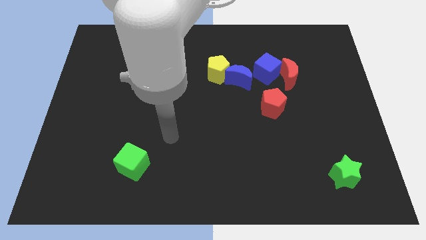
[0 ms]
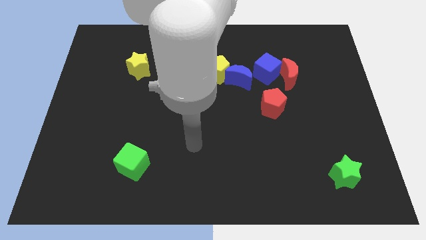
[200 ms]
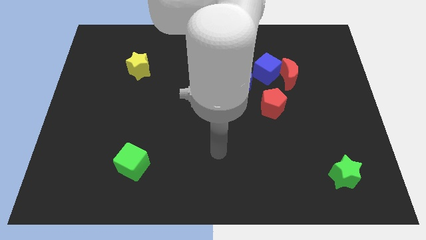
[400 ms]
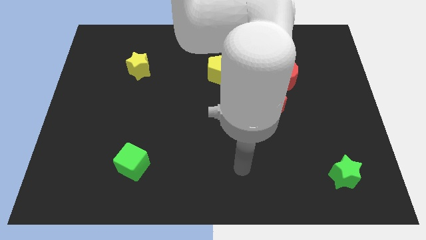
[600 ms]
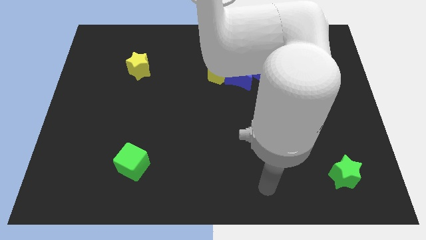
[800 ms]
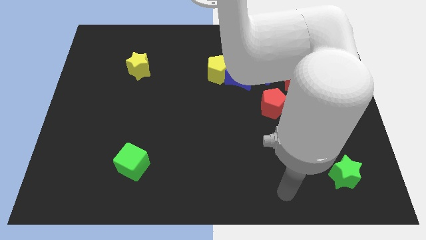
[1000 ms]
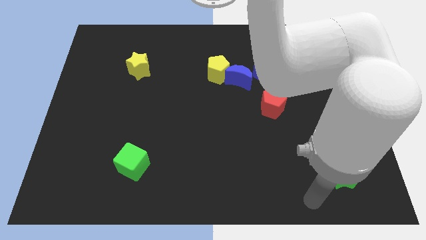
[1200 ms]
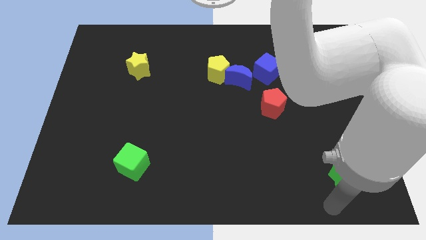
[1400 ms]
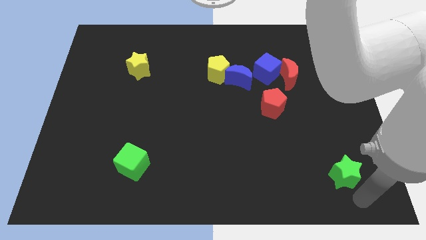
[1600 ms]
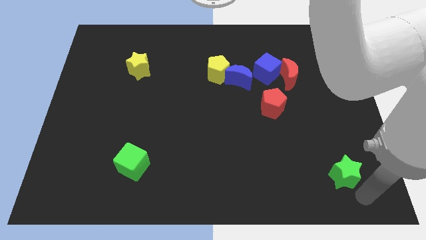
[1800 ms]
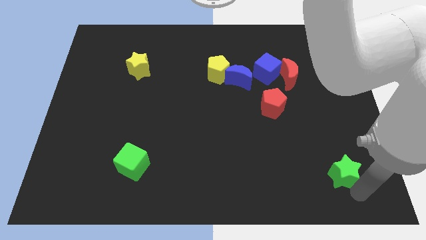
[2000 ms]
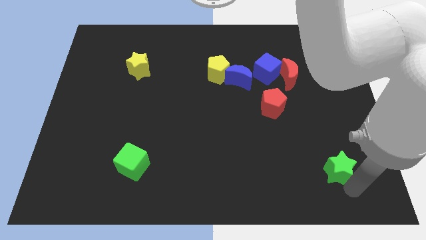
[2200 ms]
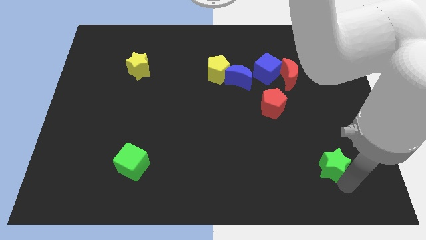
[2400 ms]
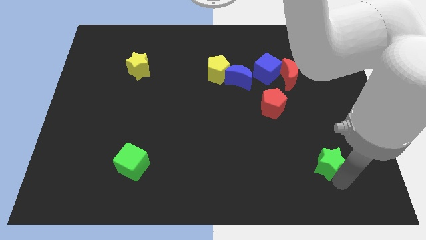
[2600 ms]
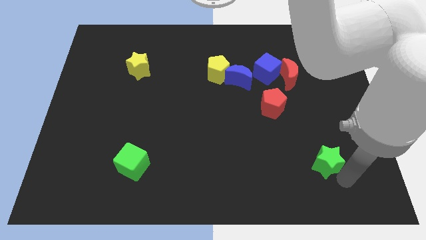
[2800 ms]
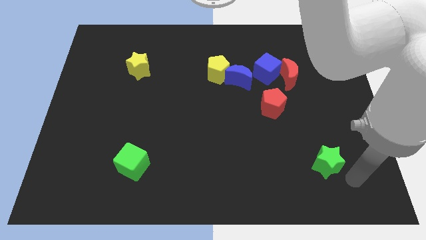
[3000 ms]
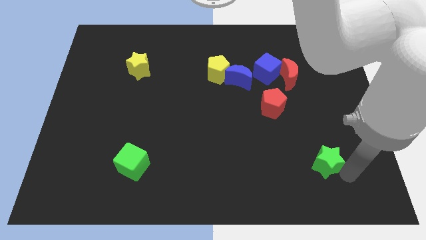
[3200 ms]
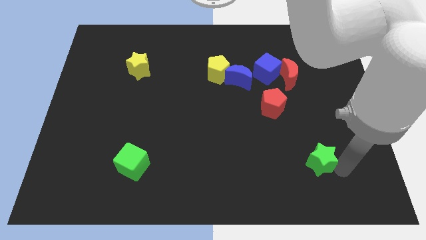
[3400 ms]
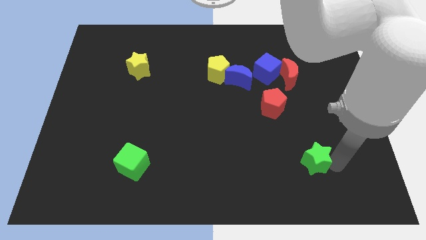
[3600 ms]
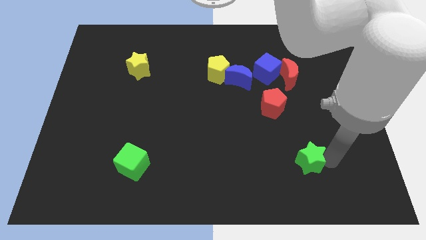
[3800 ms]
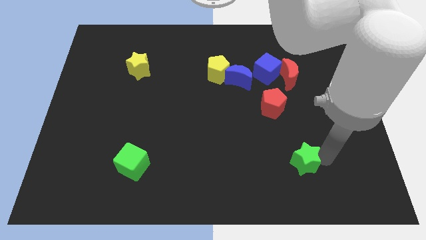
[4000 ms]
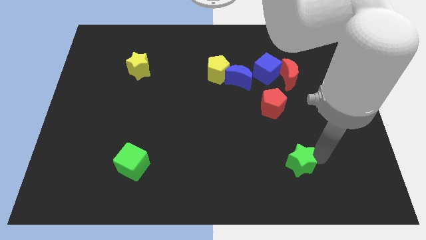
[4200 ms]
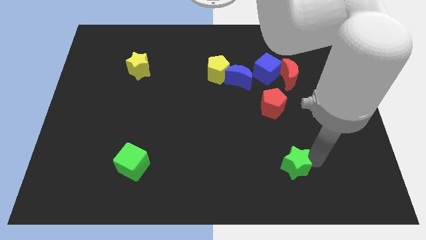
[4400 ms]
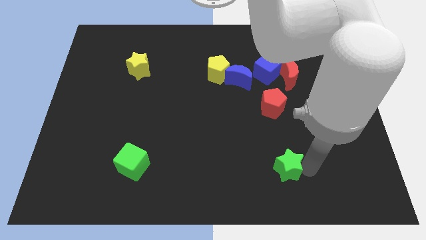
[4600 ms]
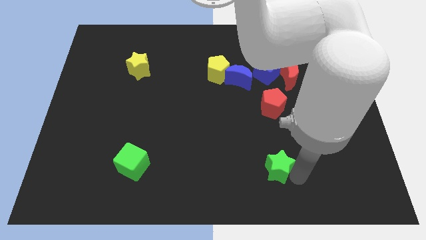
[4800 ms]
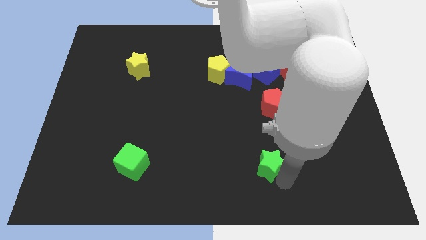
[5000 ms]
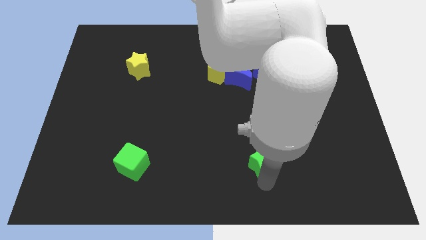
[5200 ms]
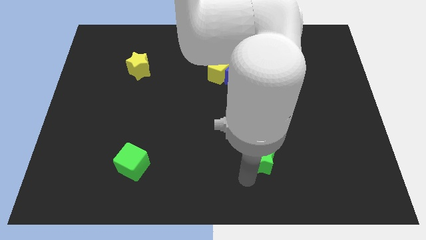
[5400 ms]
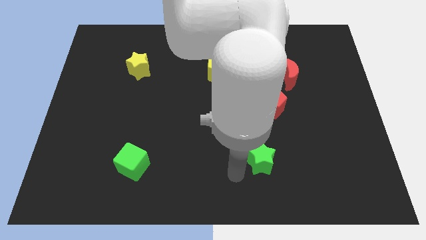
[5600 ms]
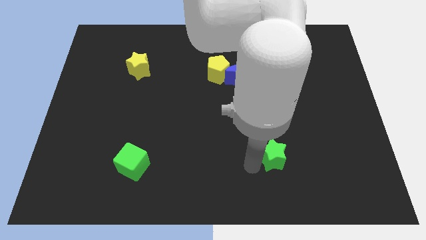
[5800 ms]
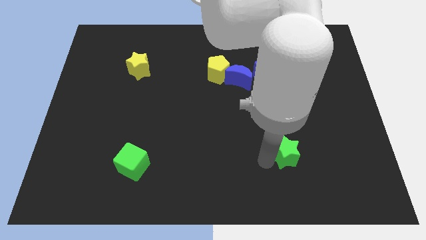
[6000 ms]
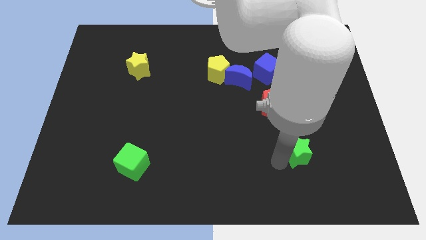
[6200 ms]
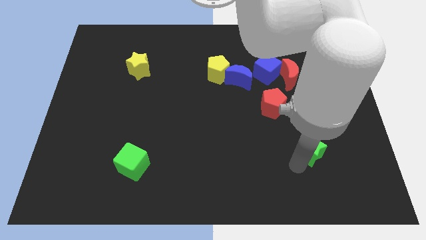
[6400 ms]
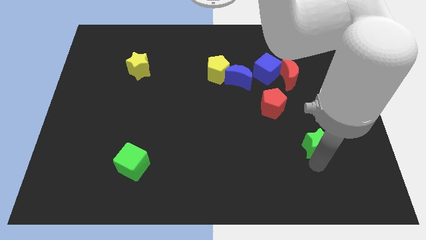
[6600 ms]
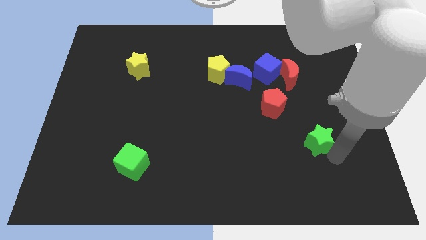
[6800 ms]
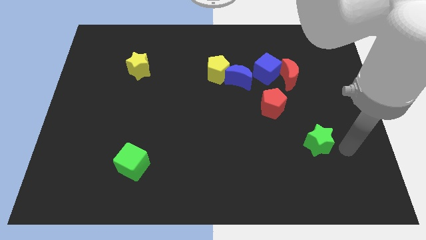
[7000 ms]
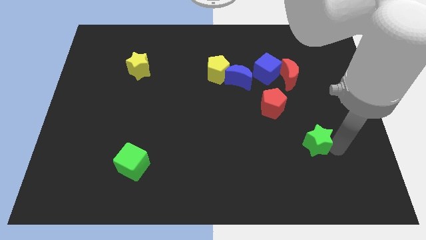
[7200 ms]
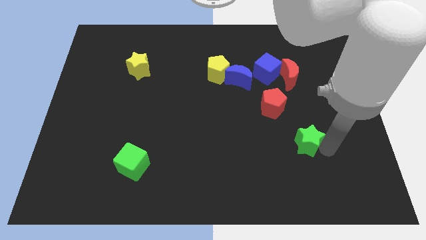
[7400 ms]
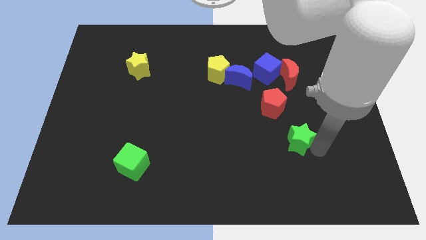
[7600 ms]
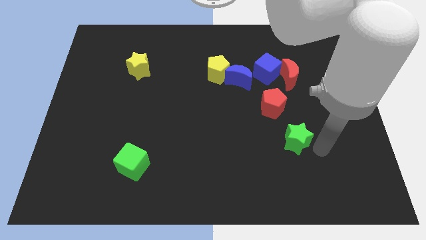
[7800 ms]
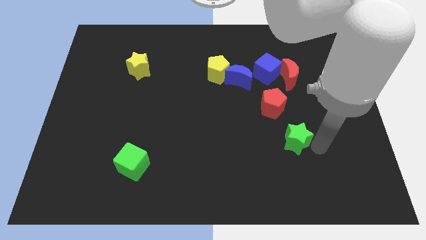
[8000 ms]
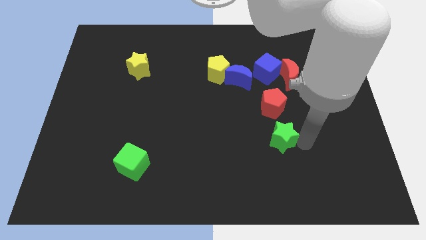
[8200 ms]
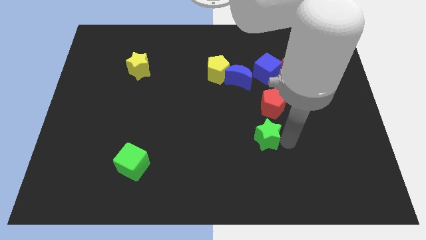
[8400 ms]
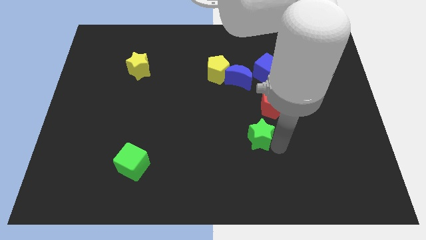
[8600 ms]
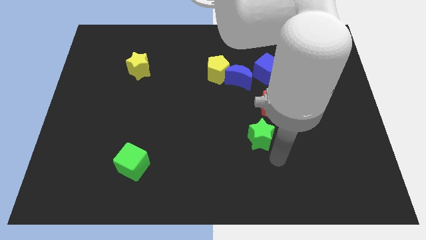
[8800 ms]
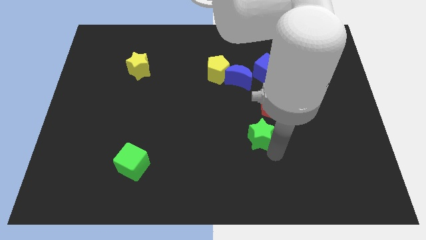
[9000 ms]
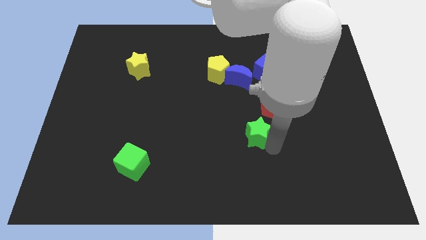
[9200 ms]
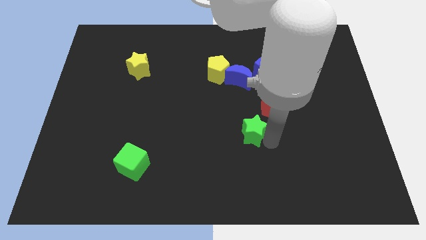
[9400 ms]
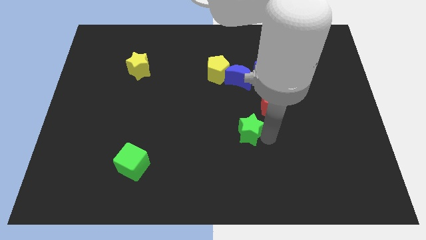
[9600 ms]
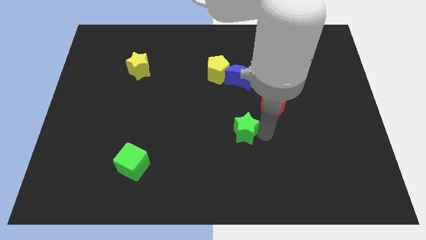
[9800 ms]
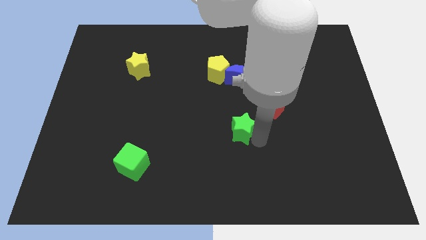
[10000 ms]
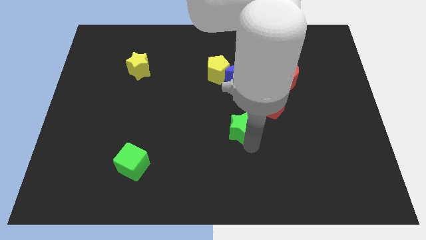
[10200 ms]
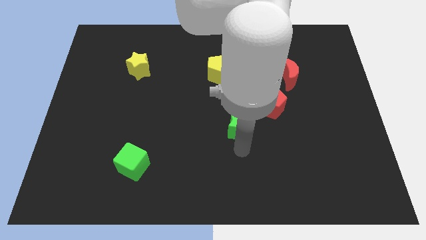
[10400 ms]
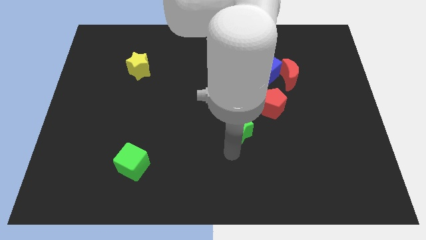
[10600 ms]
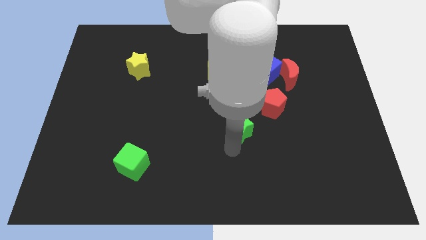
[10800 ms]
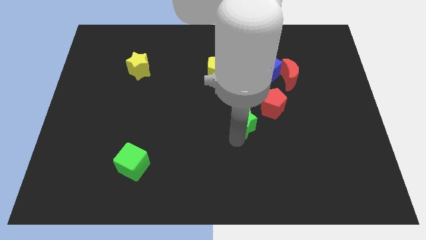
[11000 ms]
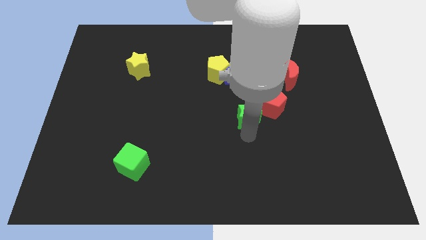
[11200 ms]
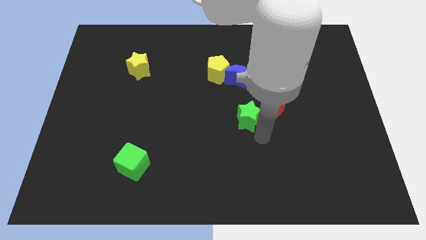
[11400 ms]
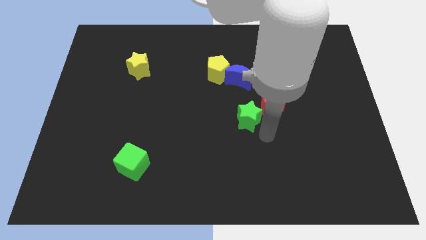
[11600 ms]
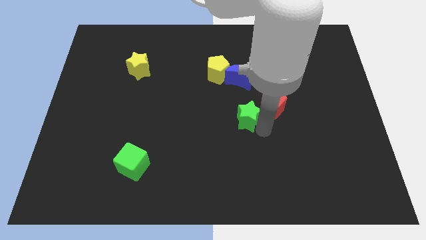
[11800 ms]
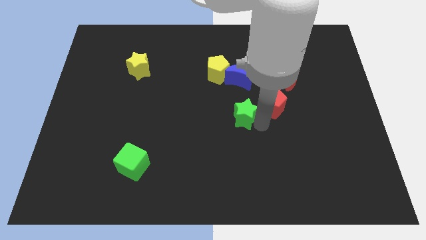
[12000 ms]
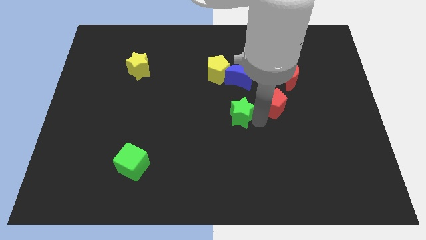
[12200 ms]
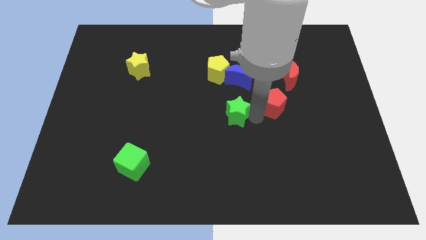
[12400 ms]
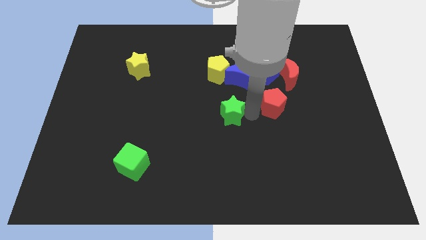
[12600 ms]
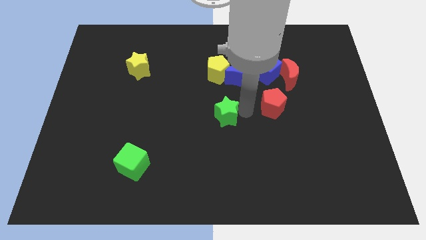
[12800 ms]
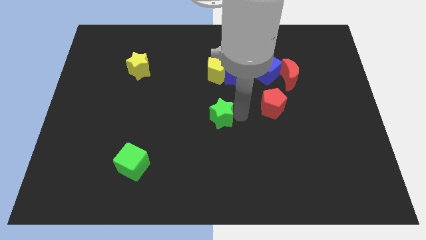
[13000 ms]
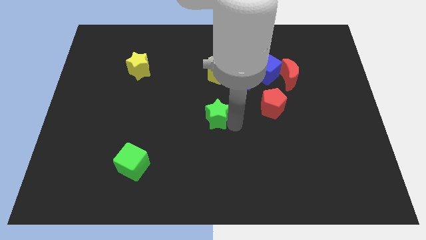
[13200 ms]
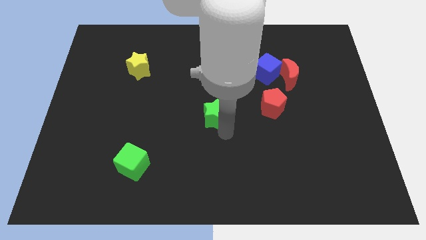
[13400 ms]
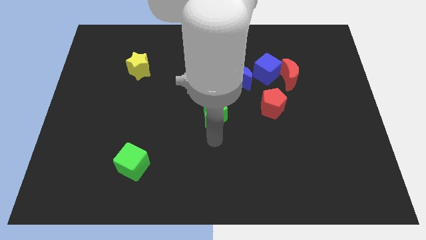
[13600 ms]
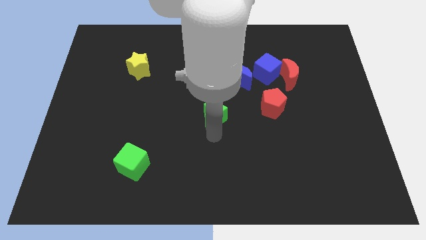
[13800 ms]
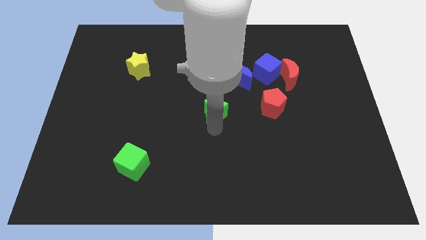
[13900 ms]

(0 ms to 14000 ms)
move the green star diagonally down and to the left of the blue moon
